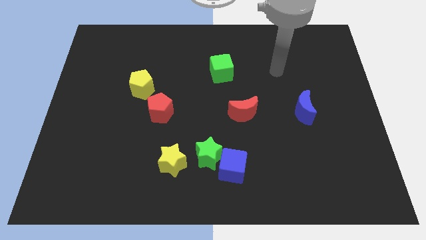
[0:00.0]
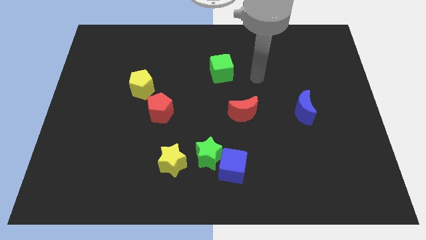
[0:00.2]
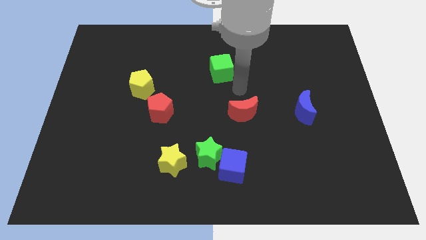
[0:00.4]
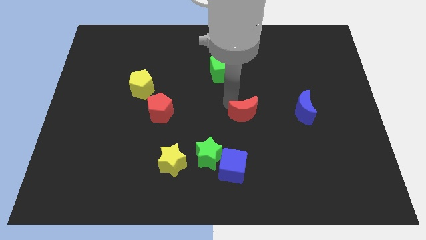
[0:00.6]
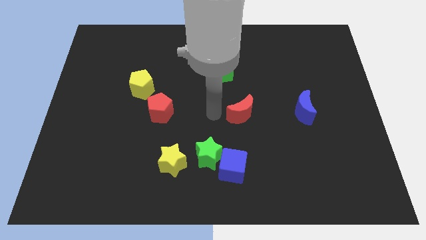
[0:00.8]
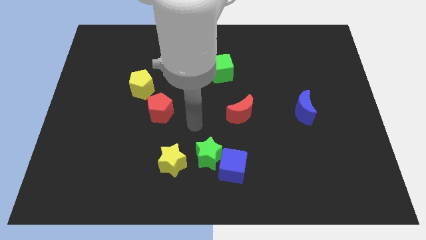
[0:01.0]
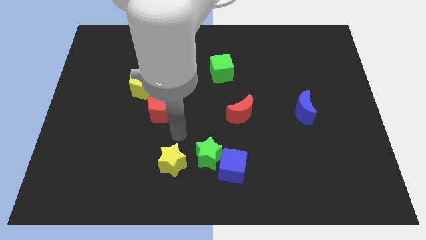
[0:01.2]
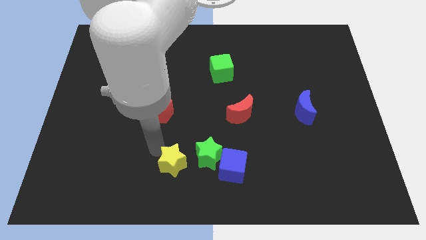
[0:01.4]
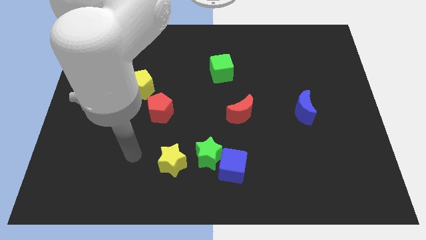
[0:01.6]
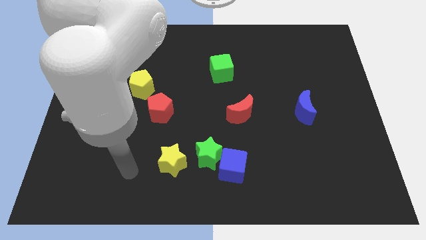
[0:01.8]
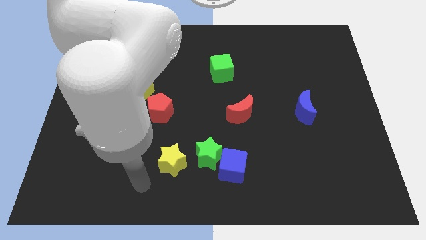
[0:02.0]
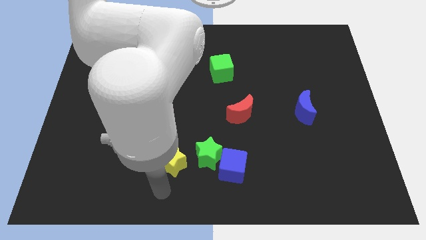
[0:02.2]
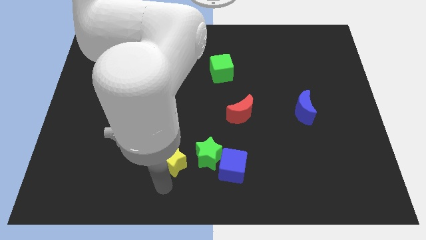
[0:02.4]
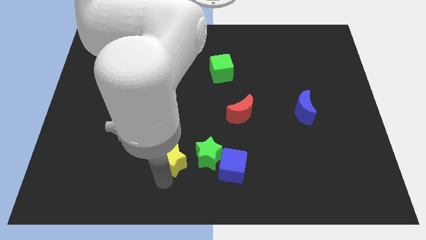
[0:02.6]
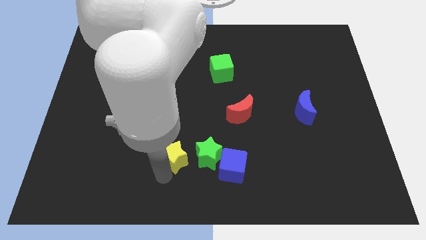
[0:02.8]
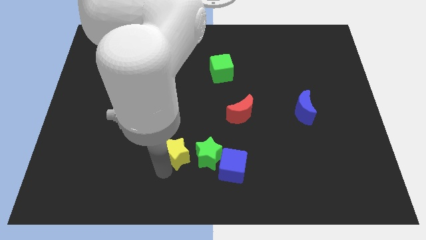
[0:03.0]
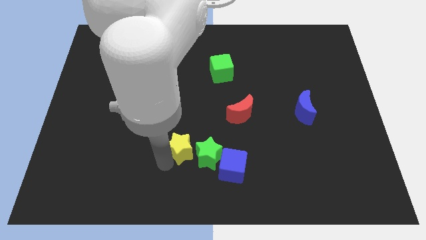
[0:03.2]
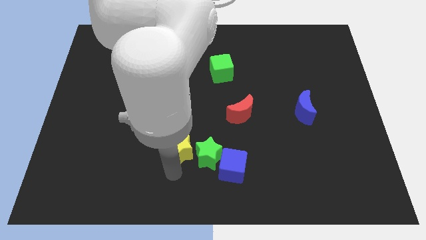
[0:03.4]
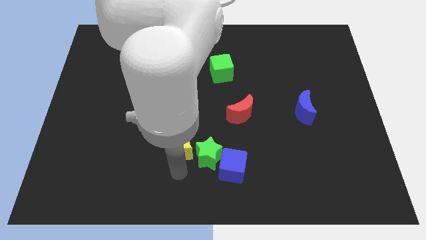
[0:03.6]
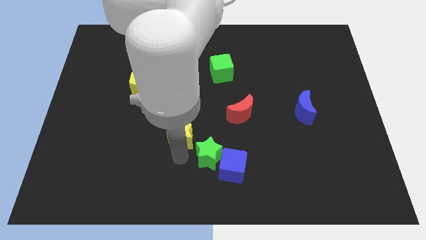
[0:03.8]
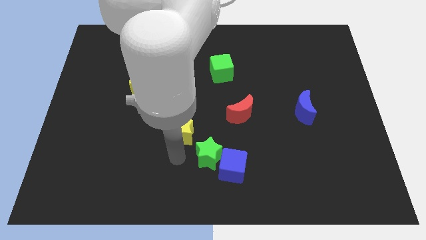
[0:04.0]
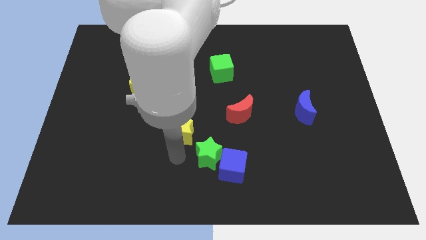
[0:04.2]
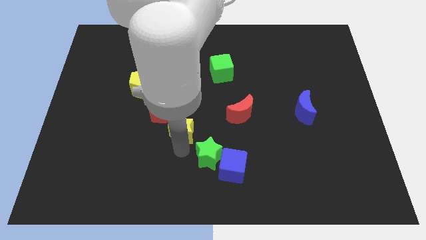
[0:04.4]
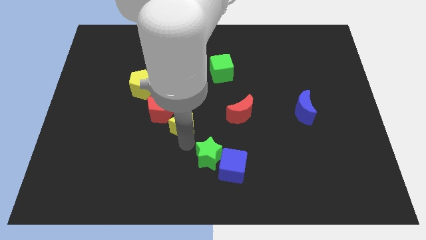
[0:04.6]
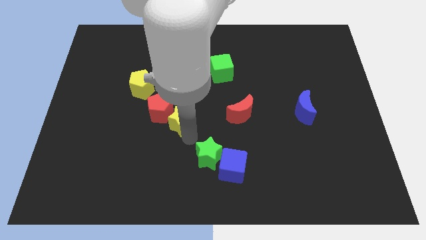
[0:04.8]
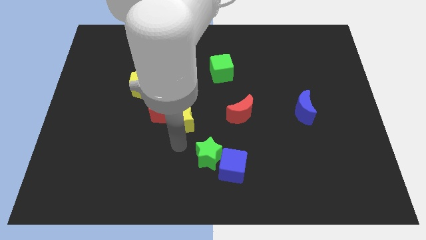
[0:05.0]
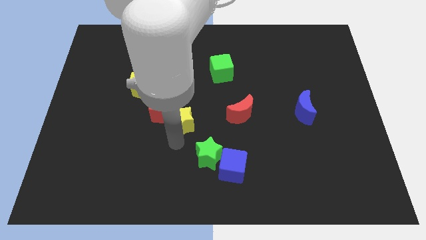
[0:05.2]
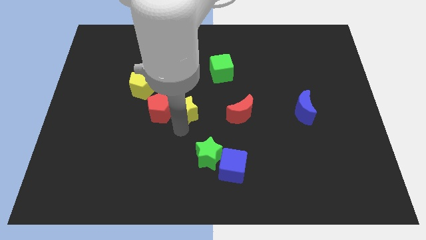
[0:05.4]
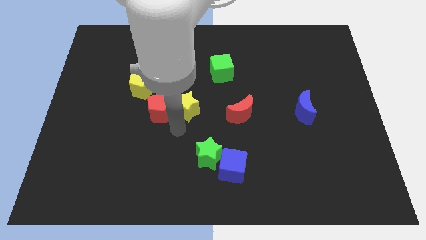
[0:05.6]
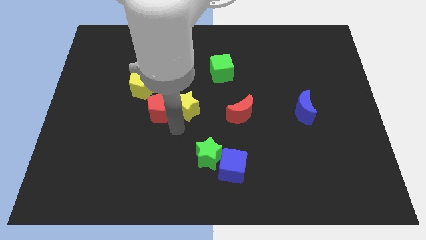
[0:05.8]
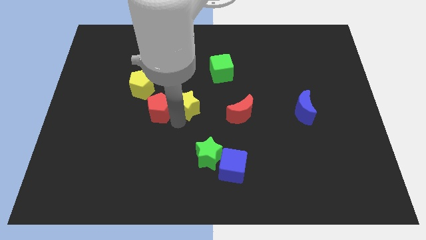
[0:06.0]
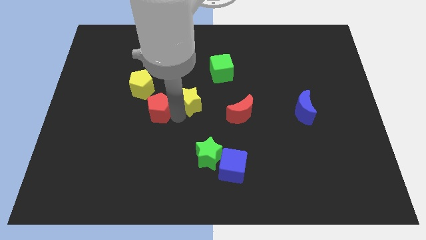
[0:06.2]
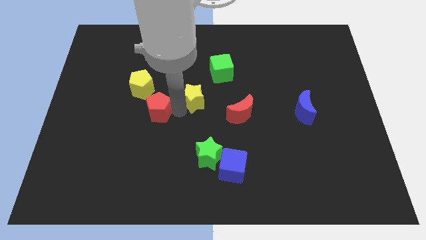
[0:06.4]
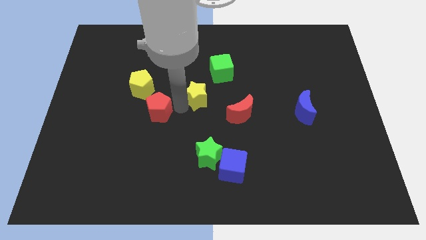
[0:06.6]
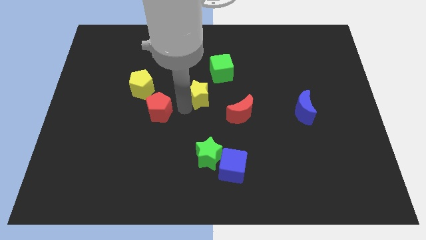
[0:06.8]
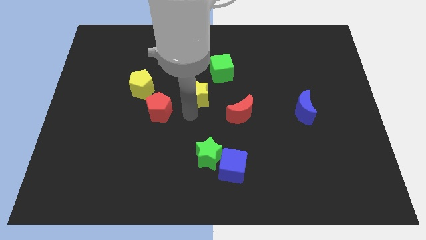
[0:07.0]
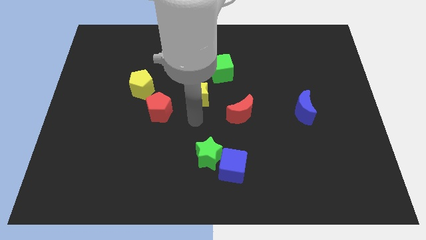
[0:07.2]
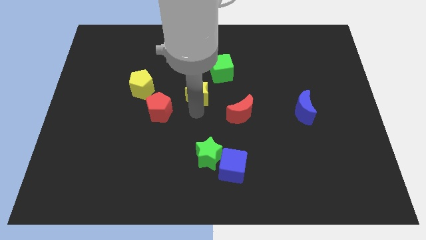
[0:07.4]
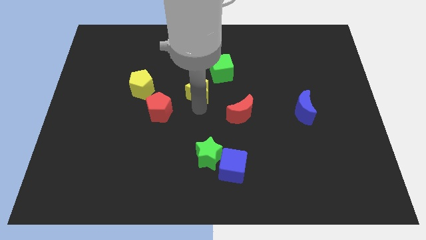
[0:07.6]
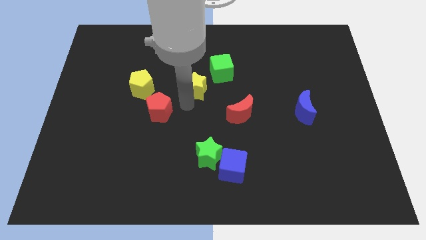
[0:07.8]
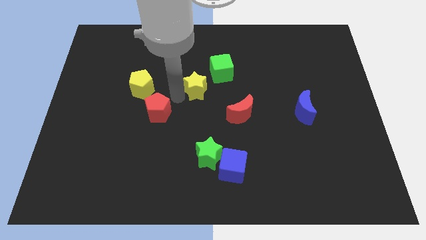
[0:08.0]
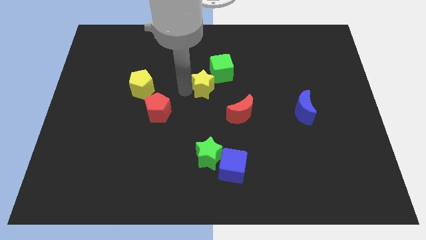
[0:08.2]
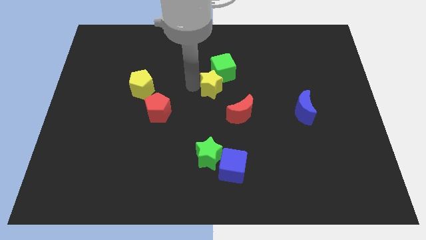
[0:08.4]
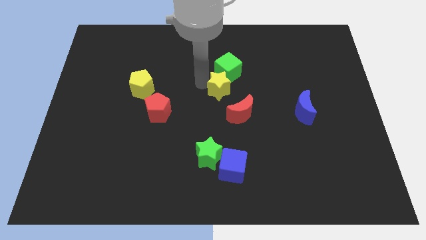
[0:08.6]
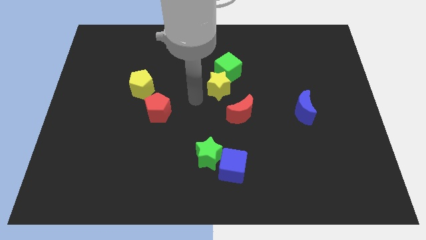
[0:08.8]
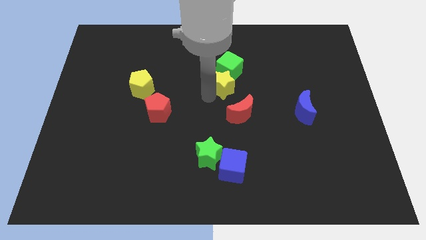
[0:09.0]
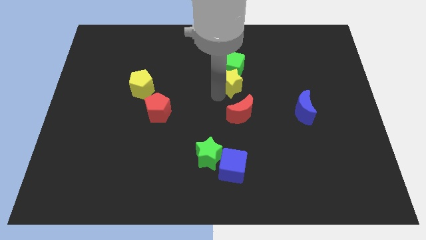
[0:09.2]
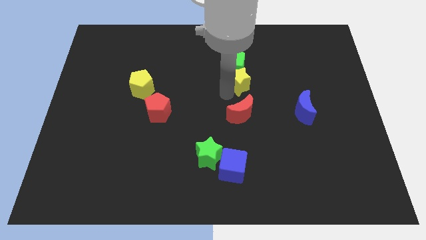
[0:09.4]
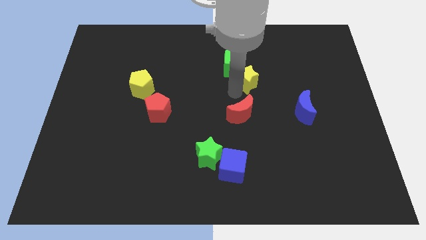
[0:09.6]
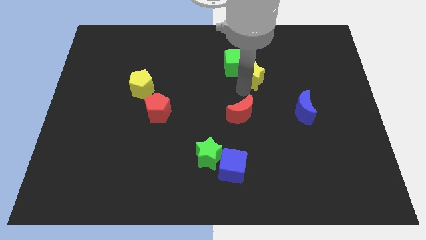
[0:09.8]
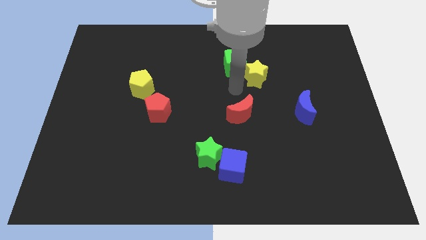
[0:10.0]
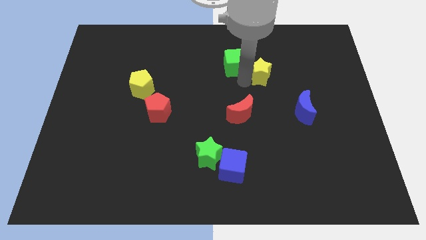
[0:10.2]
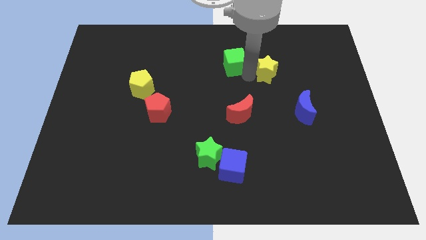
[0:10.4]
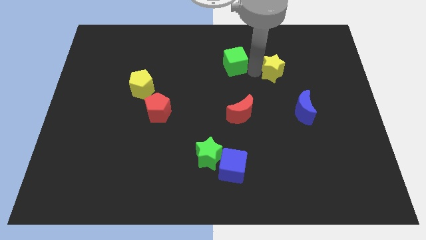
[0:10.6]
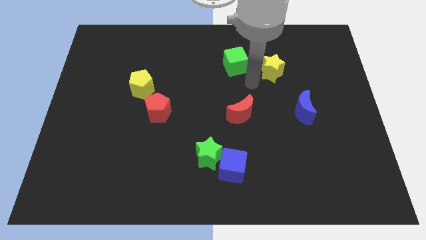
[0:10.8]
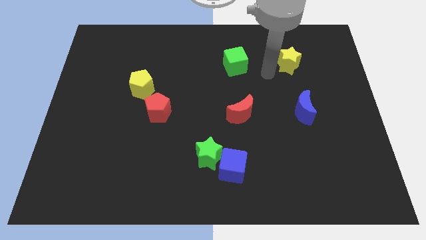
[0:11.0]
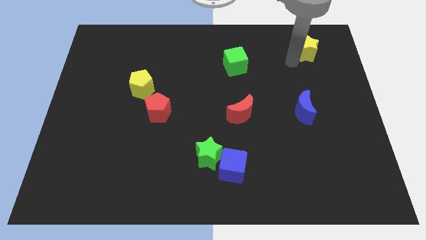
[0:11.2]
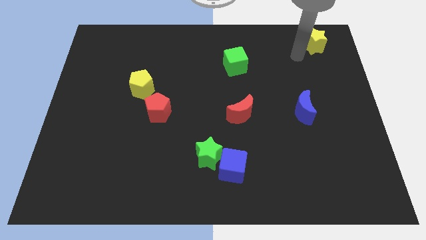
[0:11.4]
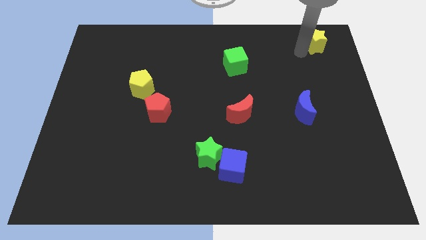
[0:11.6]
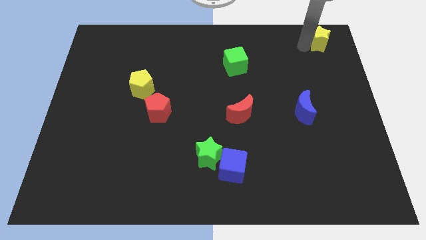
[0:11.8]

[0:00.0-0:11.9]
move the yellow star to the top right
